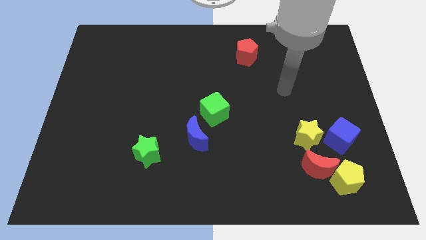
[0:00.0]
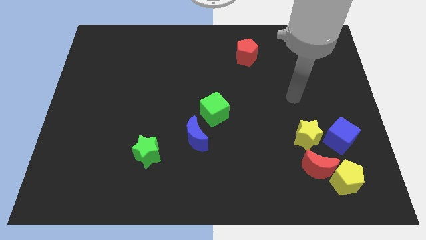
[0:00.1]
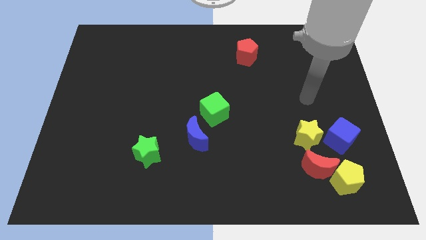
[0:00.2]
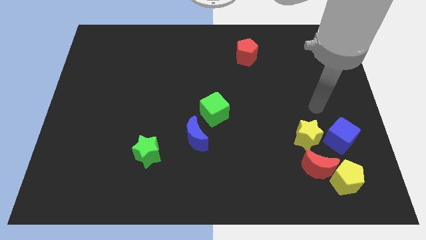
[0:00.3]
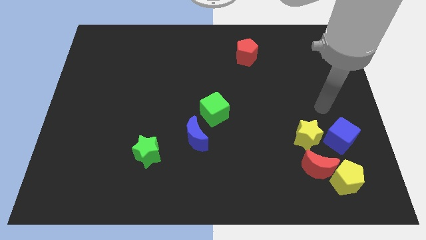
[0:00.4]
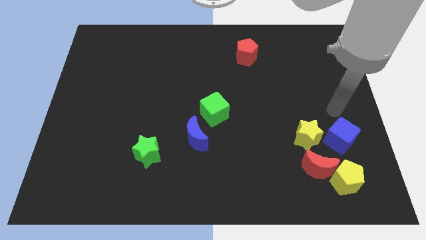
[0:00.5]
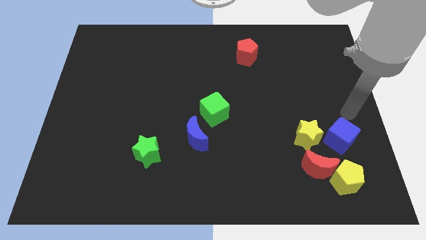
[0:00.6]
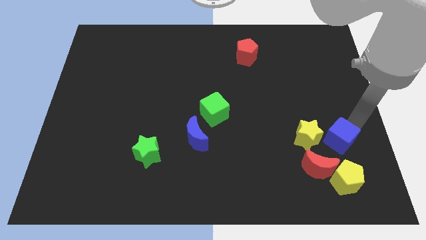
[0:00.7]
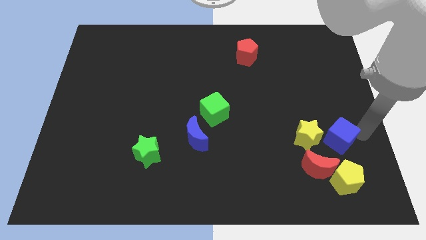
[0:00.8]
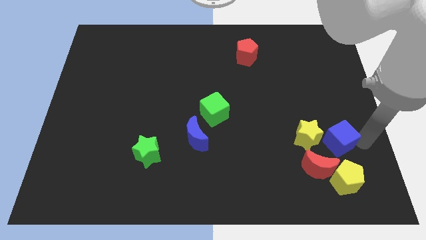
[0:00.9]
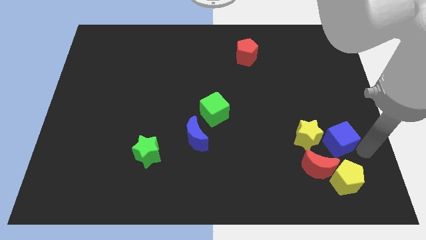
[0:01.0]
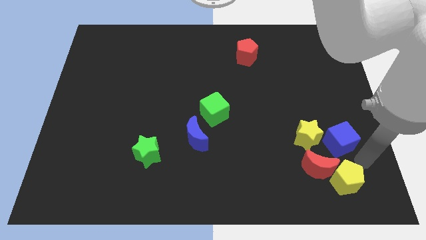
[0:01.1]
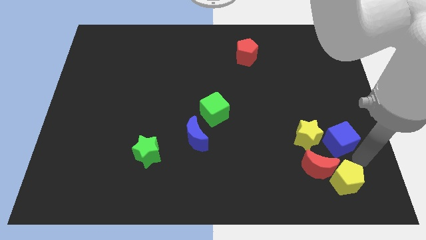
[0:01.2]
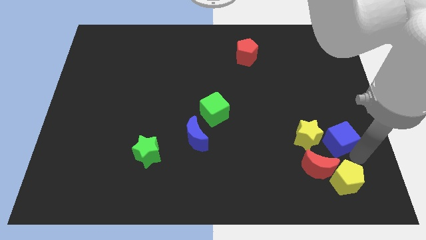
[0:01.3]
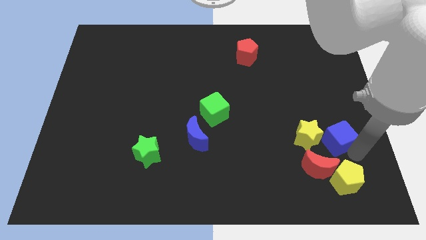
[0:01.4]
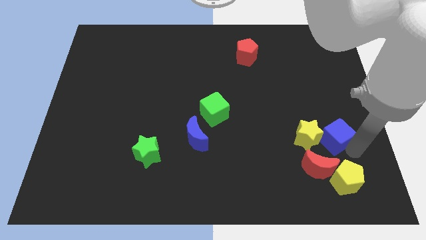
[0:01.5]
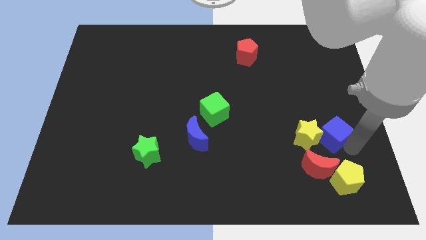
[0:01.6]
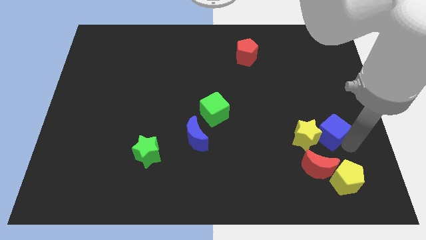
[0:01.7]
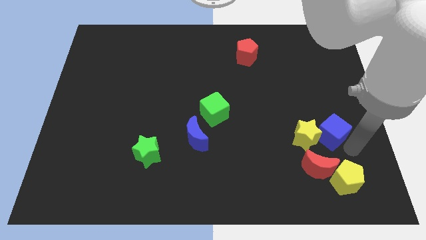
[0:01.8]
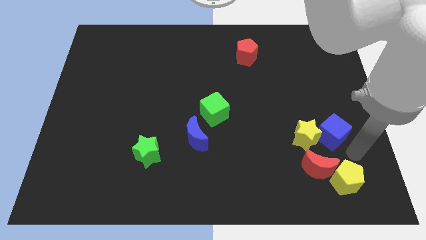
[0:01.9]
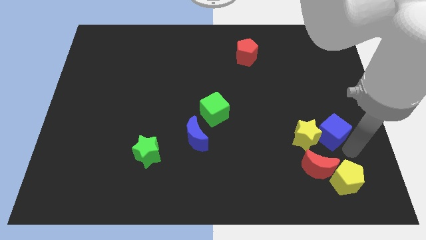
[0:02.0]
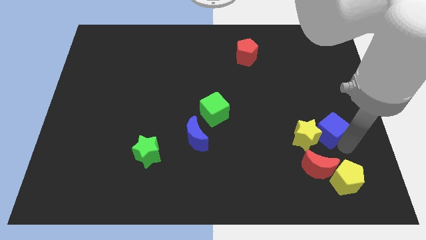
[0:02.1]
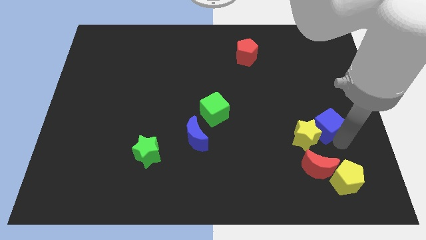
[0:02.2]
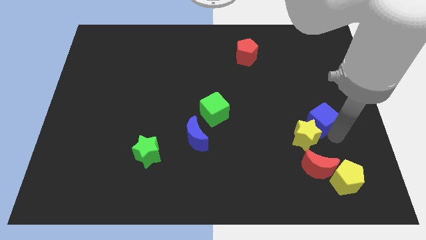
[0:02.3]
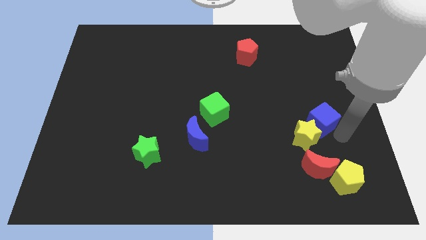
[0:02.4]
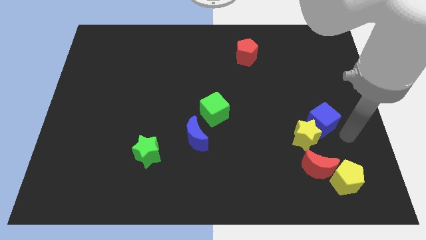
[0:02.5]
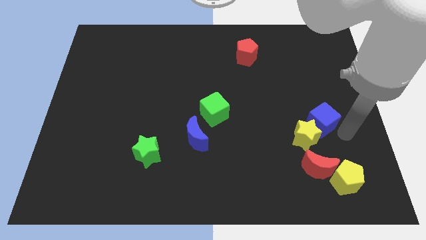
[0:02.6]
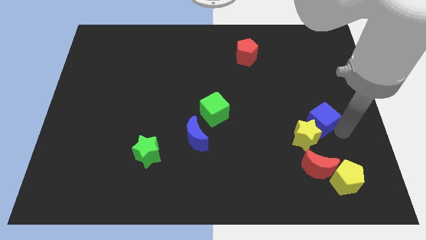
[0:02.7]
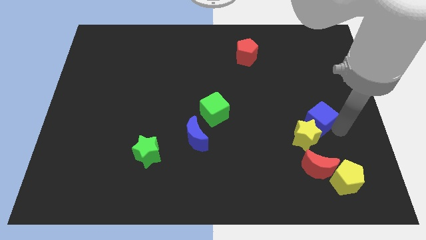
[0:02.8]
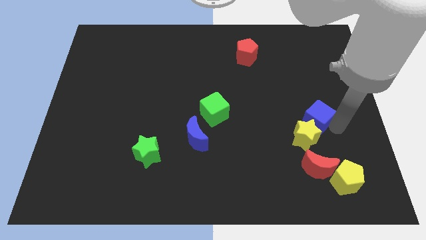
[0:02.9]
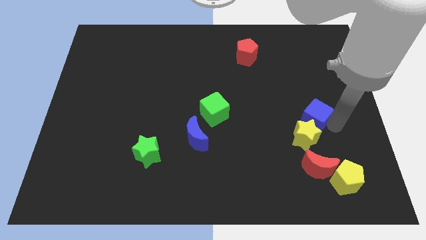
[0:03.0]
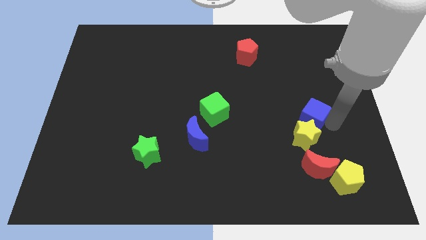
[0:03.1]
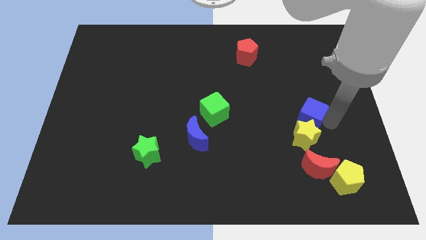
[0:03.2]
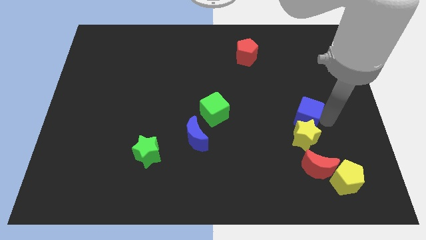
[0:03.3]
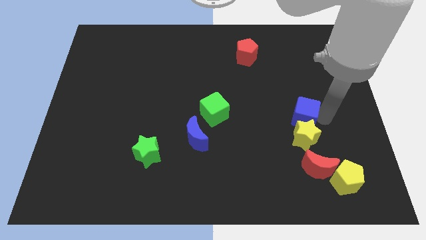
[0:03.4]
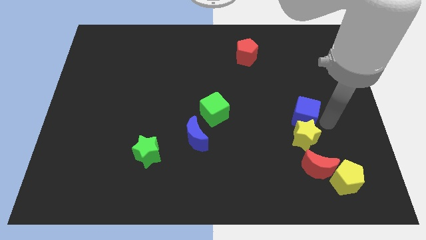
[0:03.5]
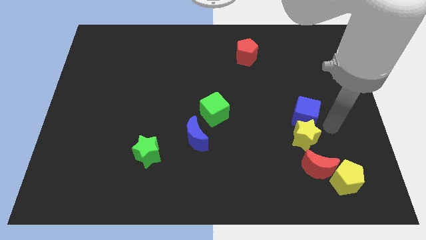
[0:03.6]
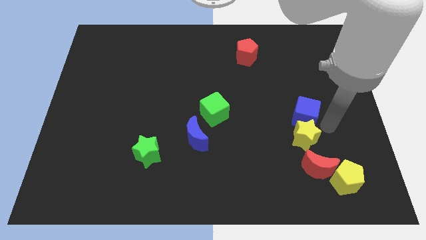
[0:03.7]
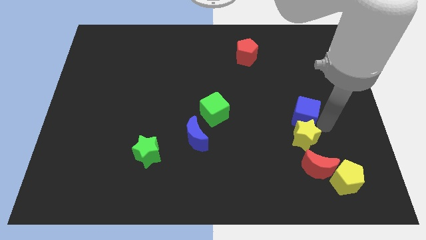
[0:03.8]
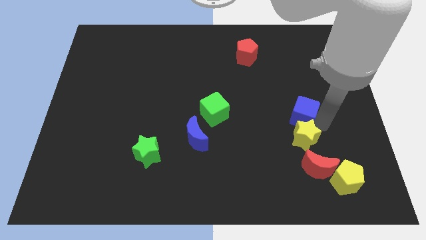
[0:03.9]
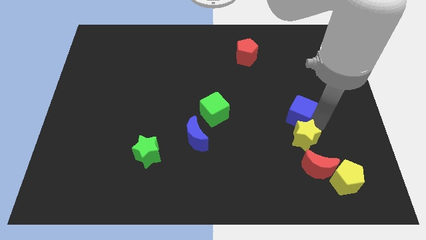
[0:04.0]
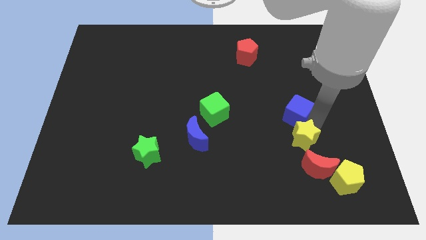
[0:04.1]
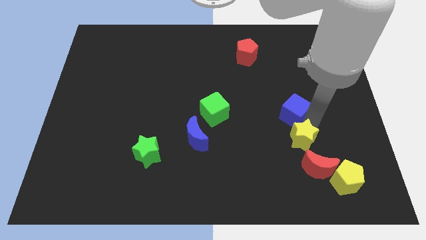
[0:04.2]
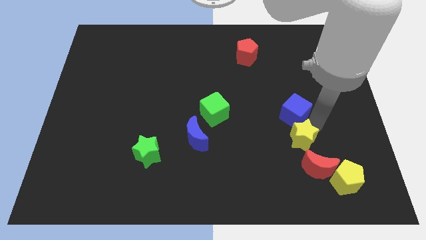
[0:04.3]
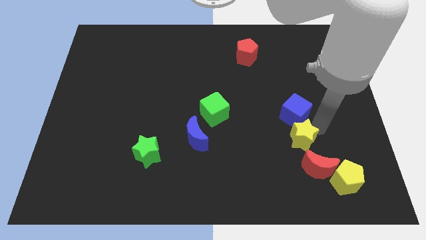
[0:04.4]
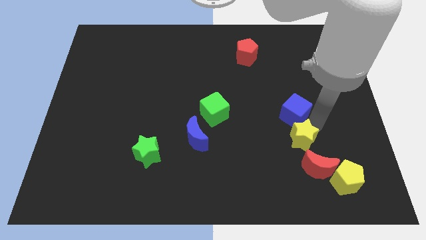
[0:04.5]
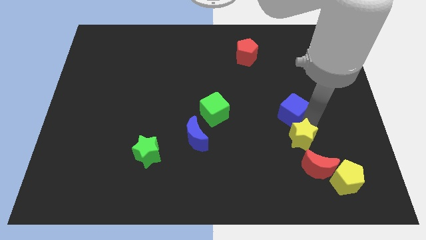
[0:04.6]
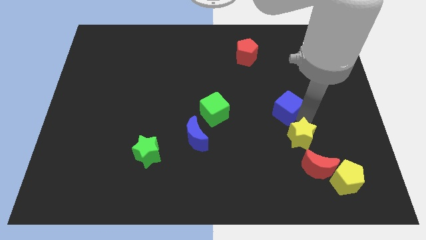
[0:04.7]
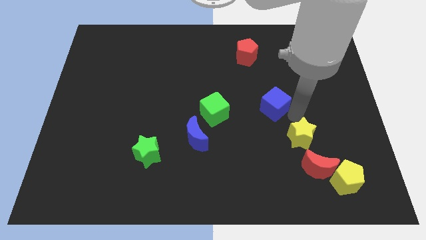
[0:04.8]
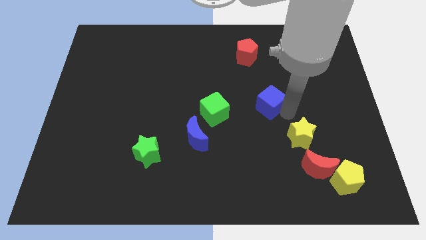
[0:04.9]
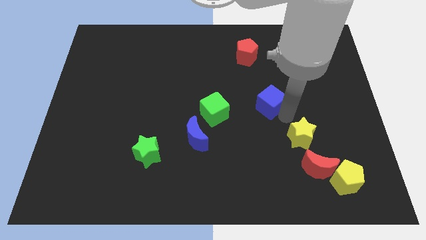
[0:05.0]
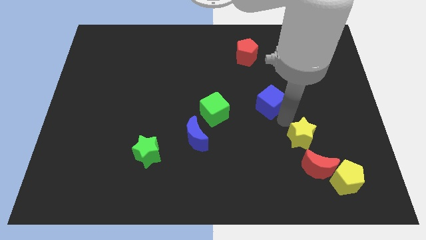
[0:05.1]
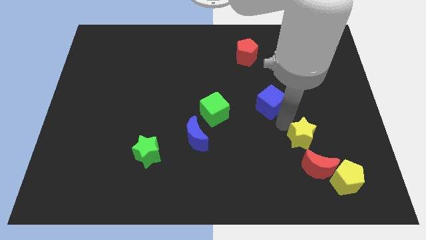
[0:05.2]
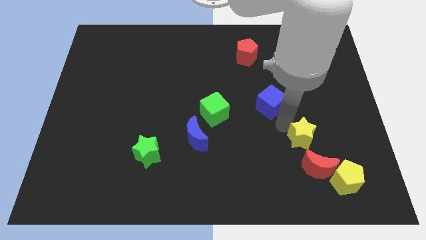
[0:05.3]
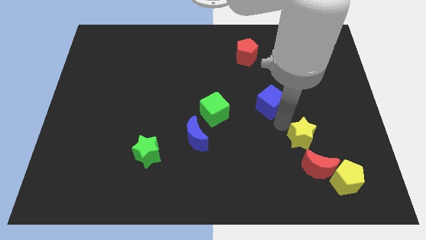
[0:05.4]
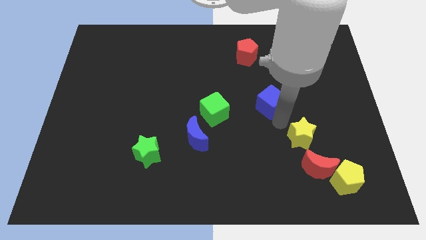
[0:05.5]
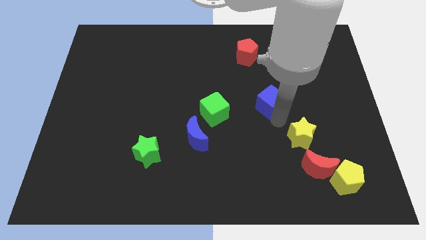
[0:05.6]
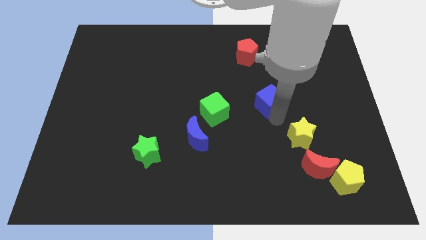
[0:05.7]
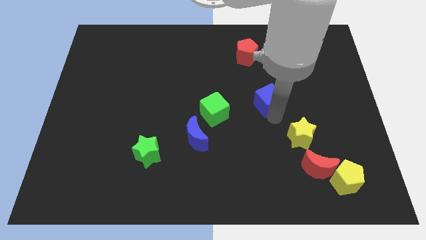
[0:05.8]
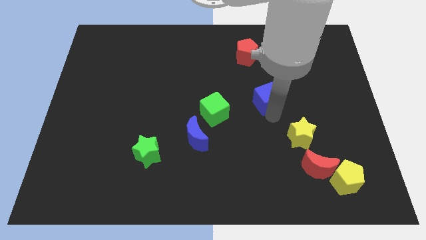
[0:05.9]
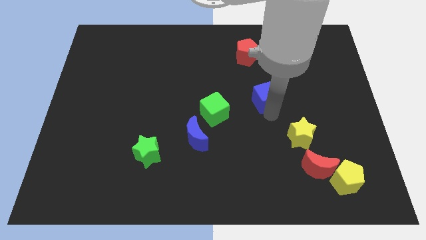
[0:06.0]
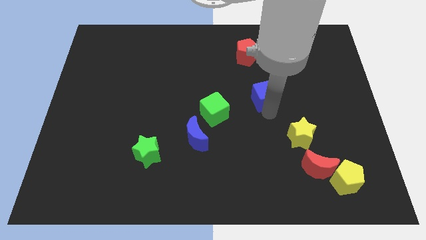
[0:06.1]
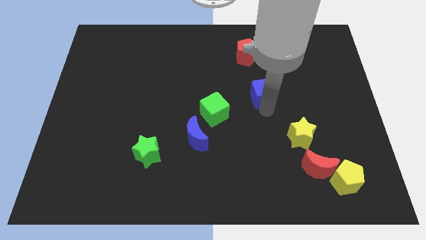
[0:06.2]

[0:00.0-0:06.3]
slide the blue cube upwards and then left

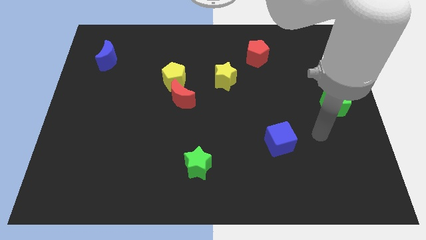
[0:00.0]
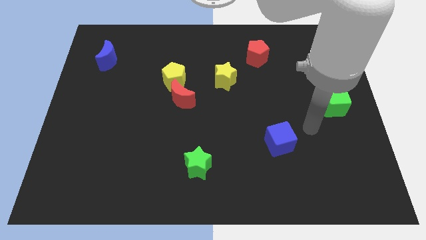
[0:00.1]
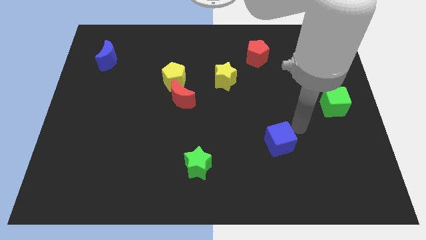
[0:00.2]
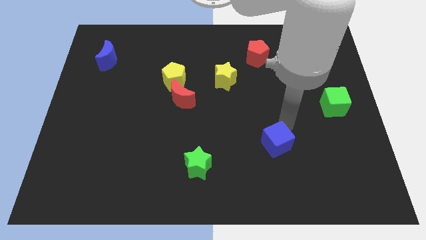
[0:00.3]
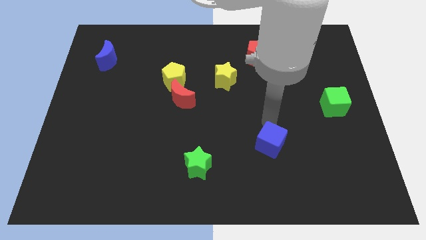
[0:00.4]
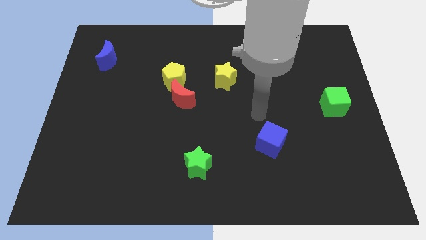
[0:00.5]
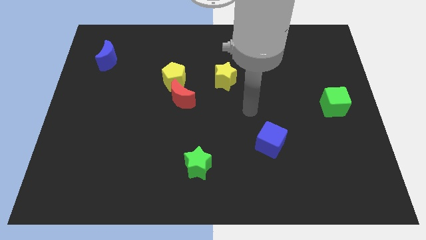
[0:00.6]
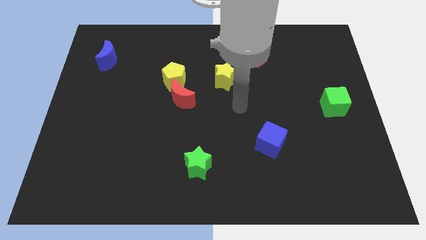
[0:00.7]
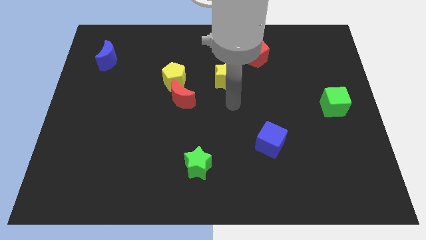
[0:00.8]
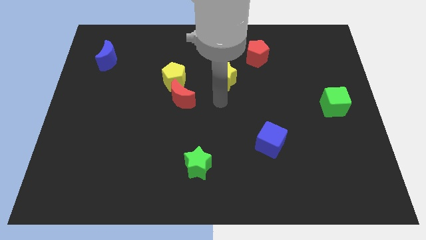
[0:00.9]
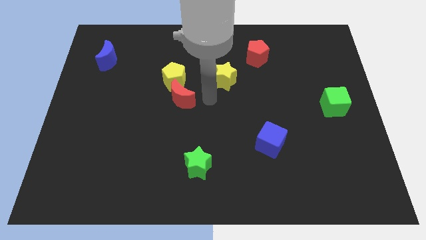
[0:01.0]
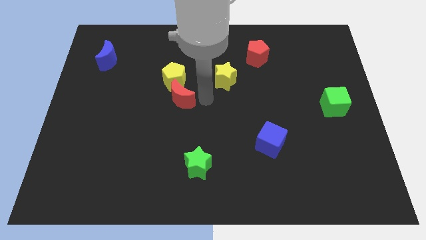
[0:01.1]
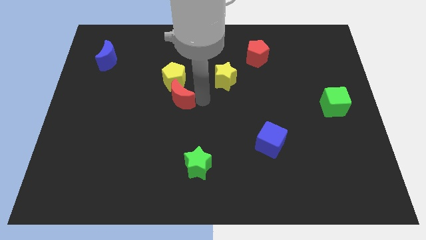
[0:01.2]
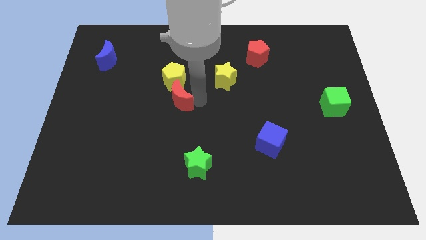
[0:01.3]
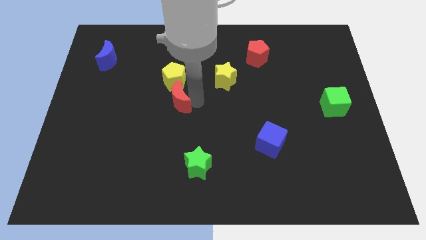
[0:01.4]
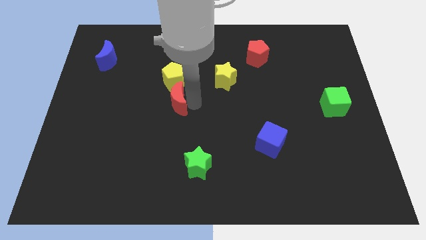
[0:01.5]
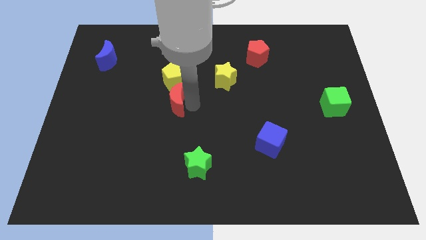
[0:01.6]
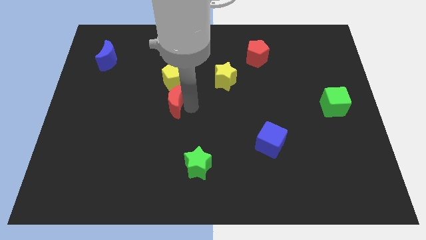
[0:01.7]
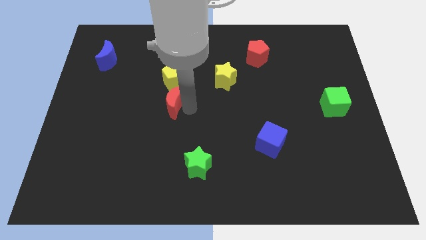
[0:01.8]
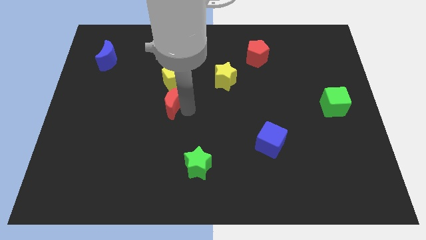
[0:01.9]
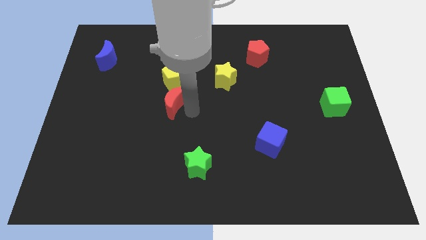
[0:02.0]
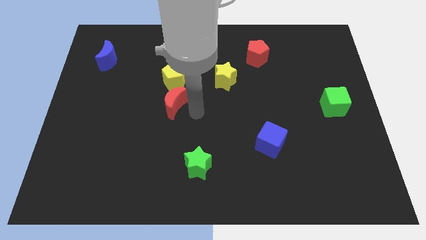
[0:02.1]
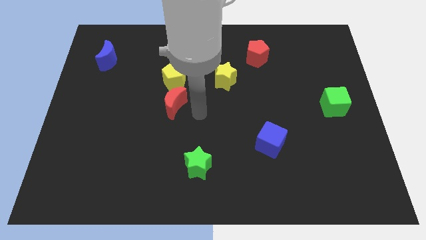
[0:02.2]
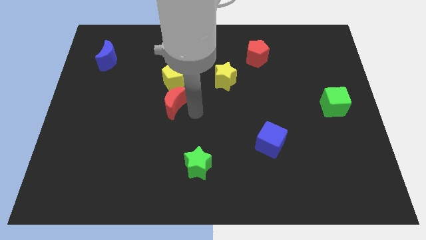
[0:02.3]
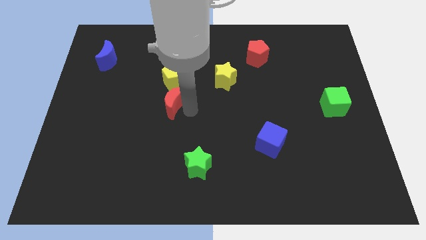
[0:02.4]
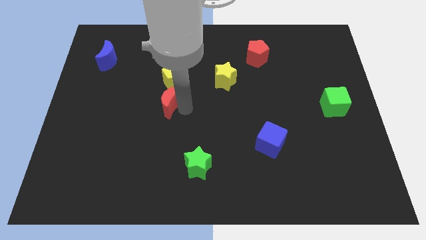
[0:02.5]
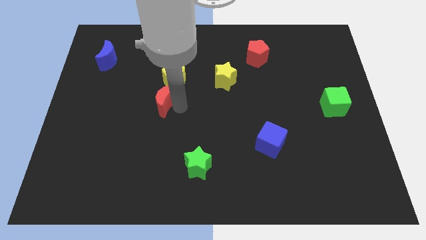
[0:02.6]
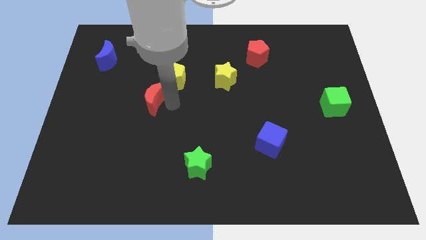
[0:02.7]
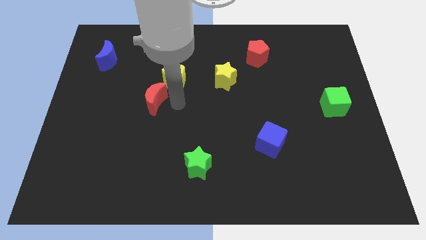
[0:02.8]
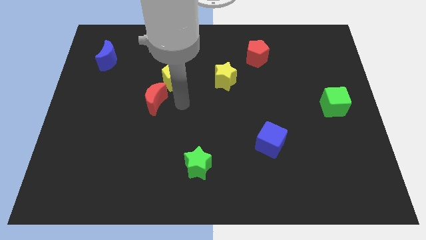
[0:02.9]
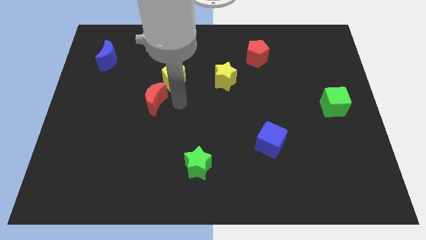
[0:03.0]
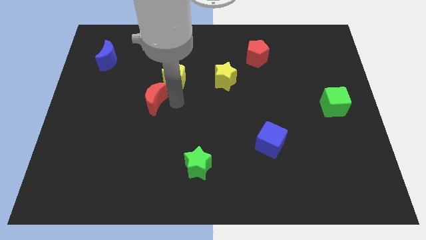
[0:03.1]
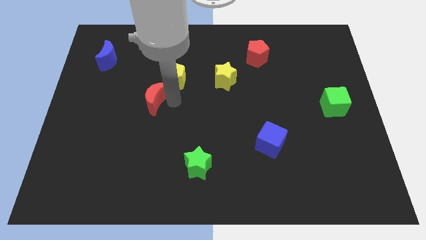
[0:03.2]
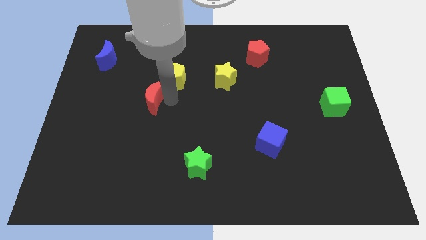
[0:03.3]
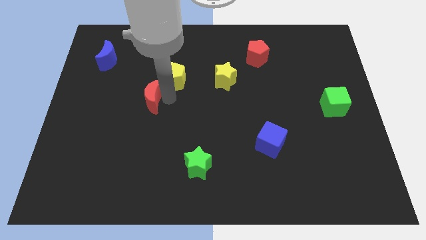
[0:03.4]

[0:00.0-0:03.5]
push the red moon a bit to the left
